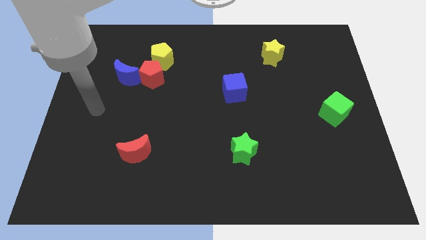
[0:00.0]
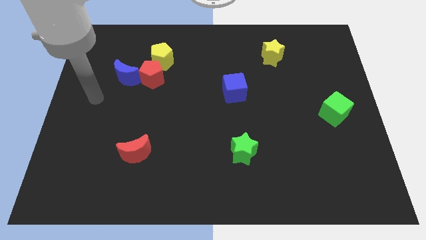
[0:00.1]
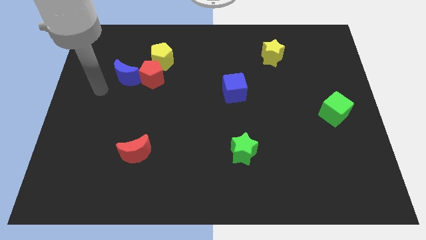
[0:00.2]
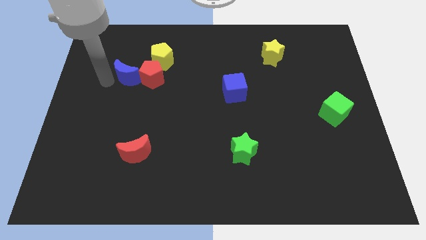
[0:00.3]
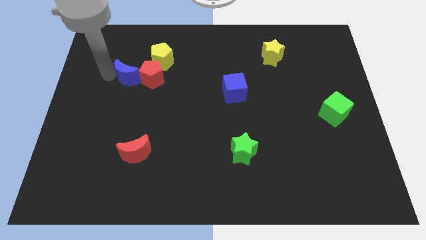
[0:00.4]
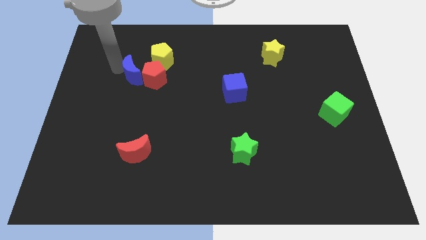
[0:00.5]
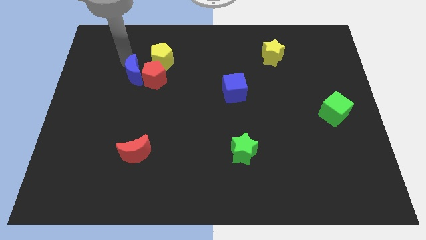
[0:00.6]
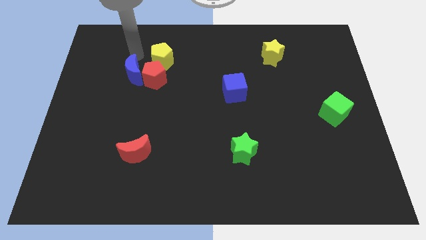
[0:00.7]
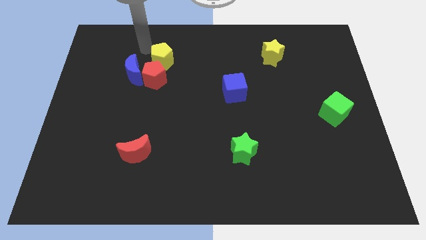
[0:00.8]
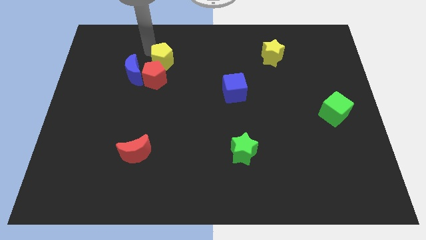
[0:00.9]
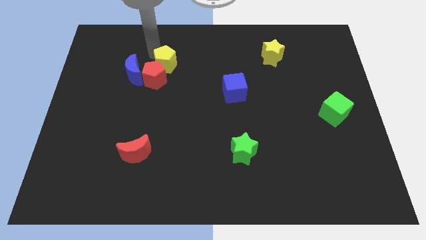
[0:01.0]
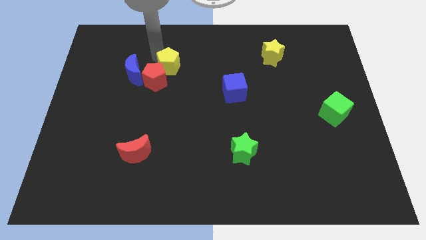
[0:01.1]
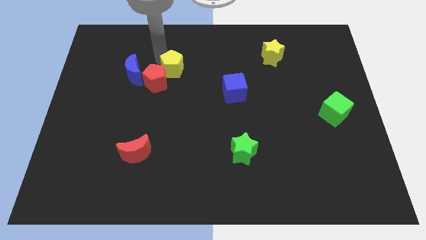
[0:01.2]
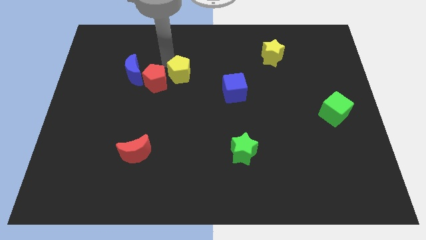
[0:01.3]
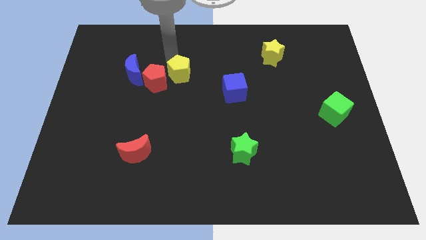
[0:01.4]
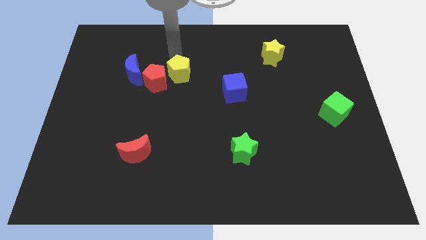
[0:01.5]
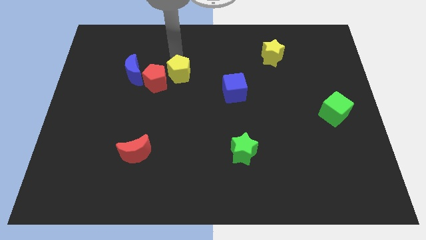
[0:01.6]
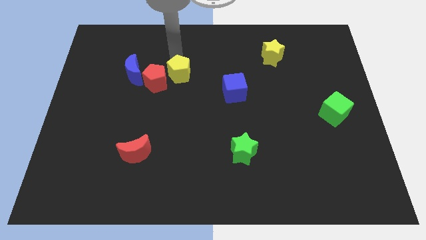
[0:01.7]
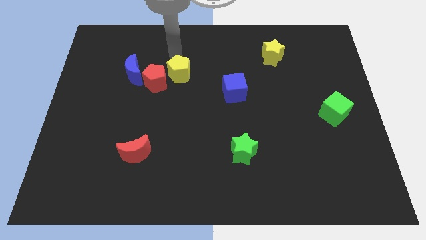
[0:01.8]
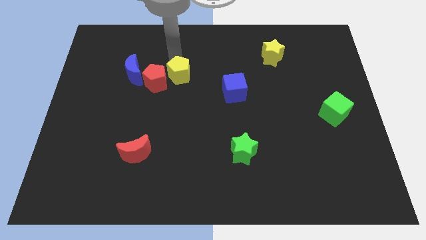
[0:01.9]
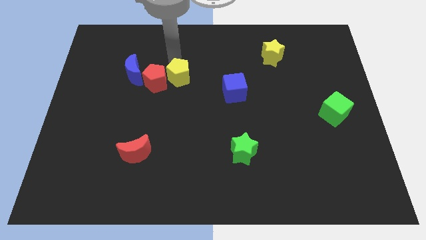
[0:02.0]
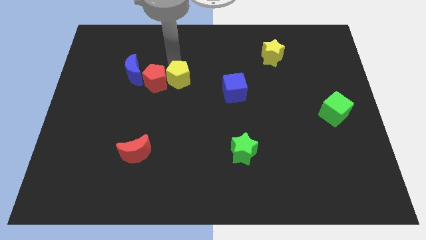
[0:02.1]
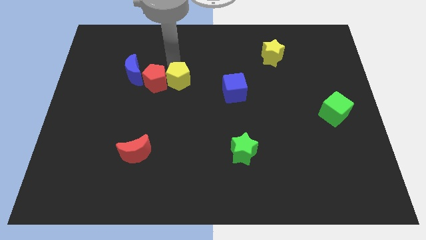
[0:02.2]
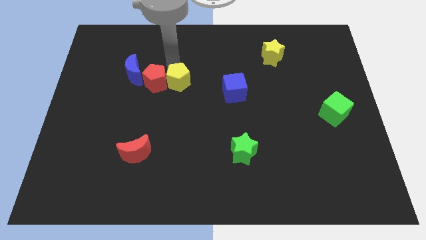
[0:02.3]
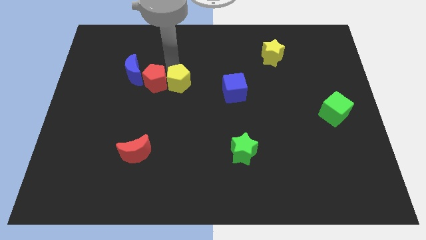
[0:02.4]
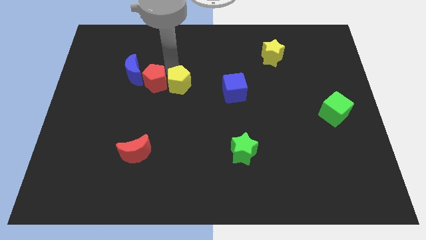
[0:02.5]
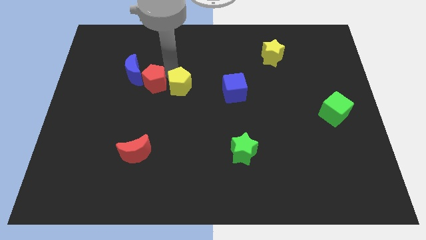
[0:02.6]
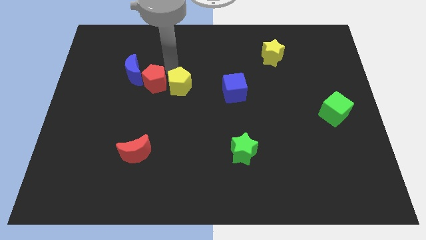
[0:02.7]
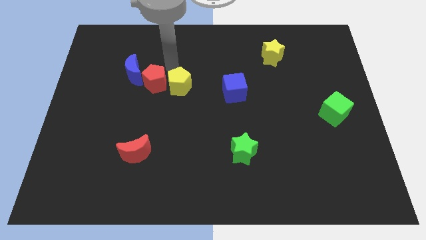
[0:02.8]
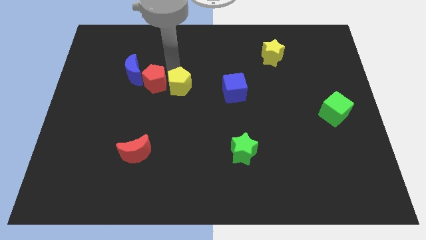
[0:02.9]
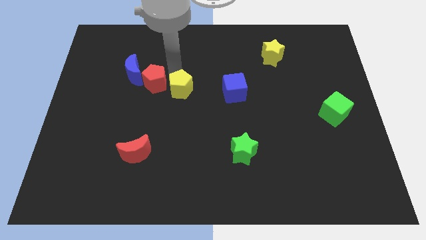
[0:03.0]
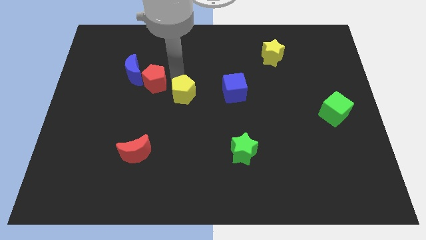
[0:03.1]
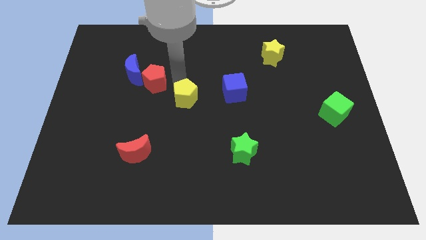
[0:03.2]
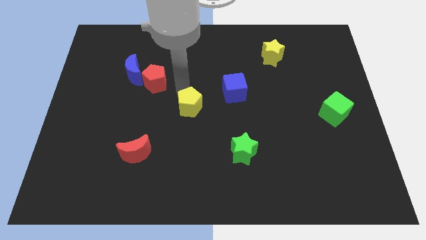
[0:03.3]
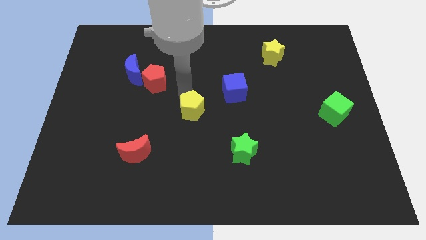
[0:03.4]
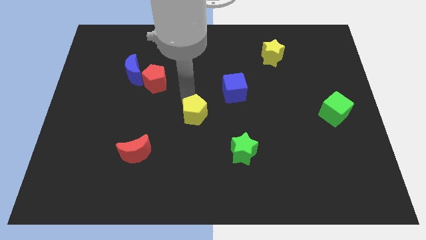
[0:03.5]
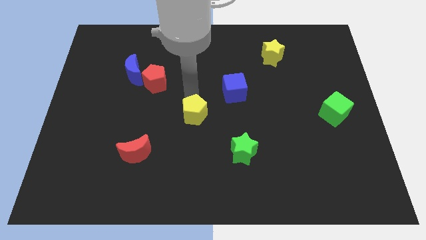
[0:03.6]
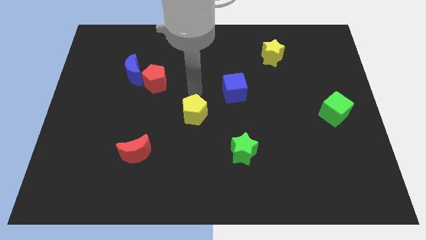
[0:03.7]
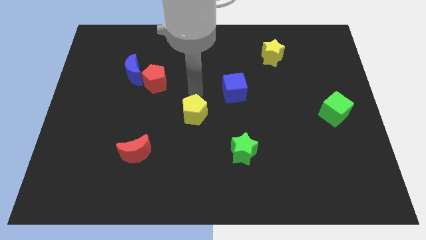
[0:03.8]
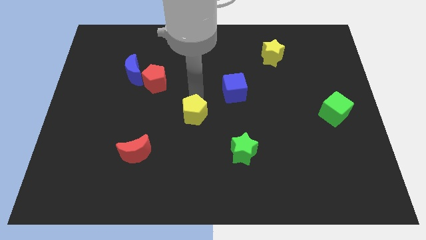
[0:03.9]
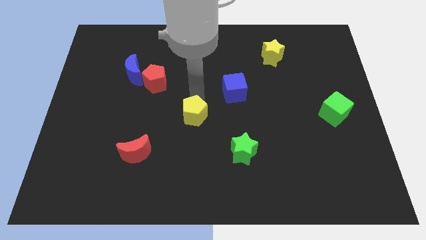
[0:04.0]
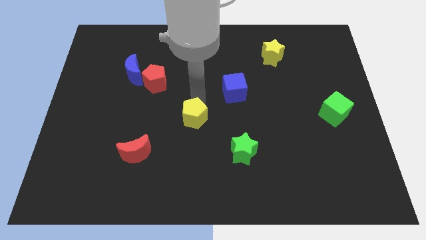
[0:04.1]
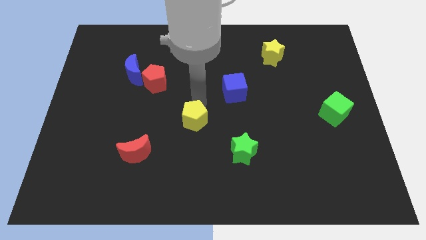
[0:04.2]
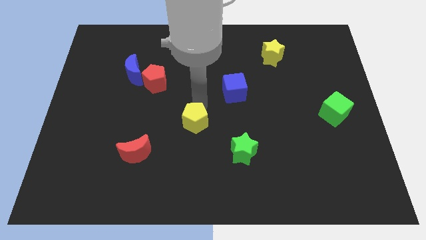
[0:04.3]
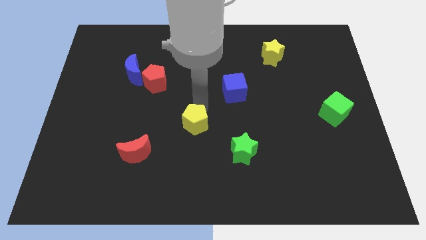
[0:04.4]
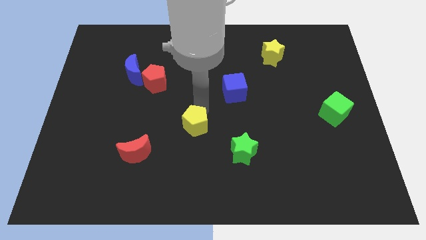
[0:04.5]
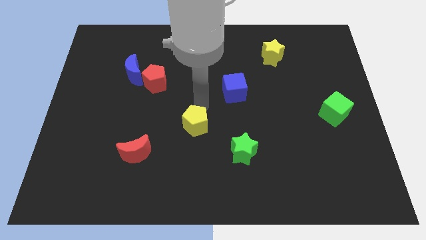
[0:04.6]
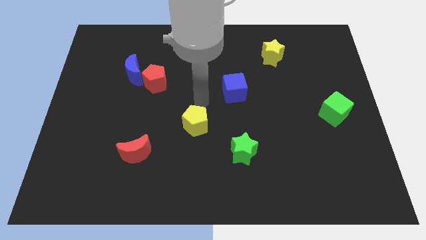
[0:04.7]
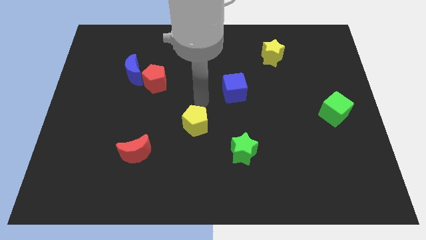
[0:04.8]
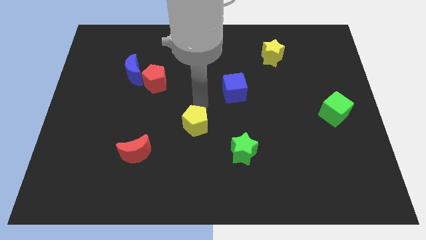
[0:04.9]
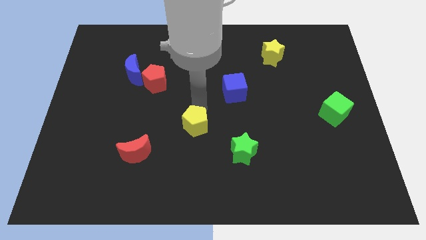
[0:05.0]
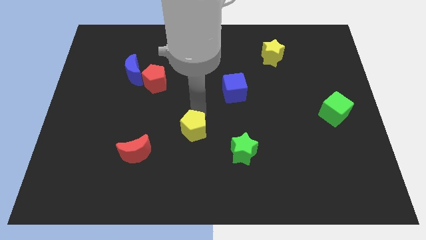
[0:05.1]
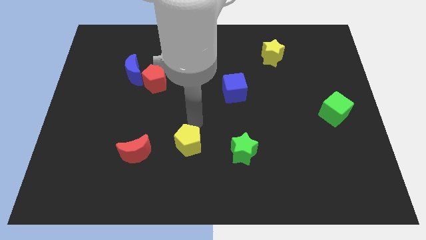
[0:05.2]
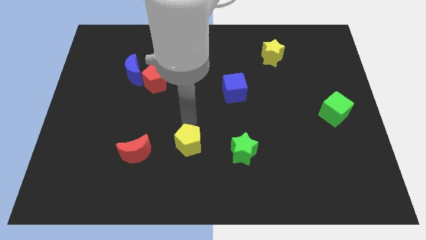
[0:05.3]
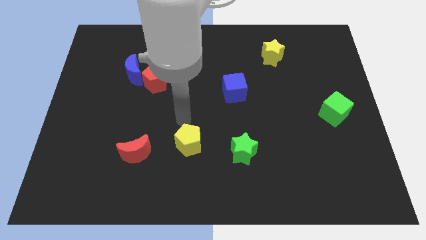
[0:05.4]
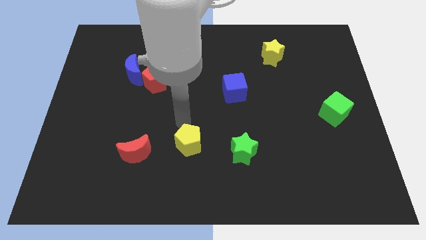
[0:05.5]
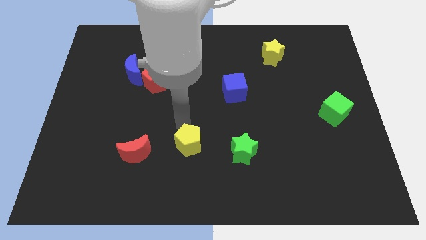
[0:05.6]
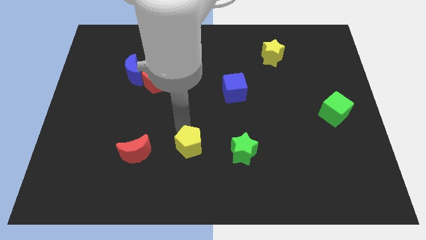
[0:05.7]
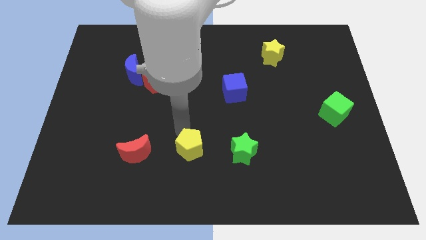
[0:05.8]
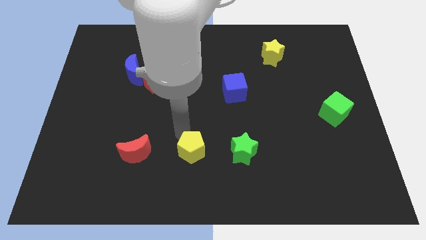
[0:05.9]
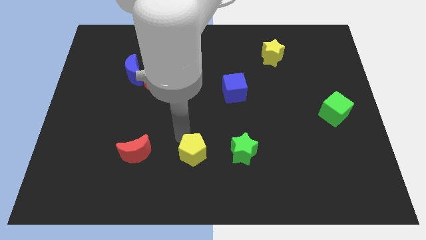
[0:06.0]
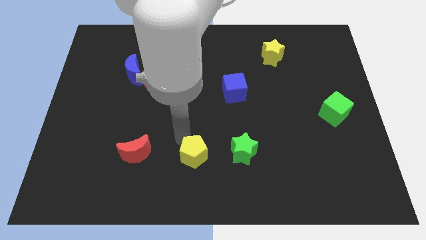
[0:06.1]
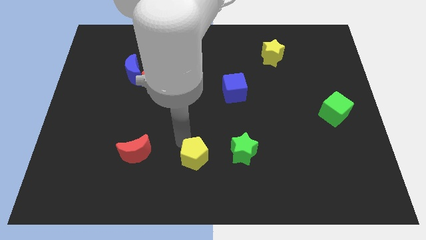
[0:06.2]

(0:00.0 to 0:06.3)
move the yellow pentagon to the bottom side
